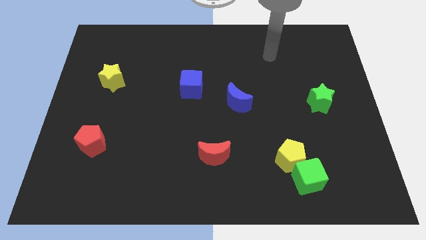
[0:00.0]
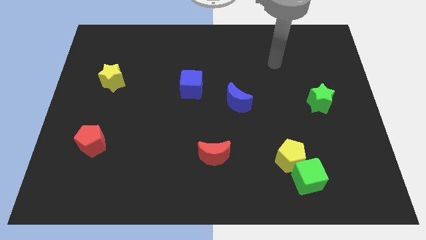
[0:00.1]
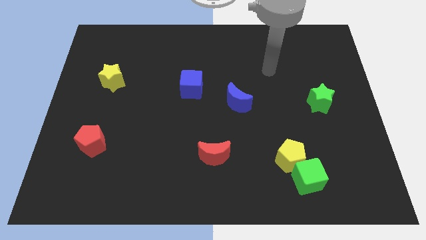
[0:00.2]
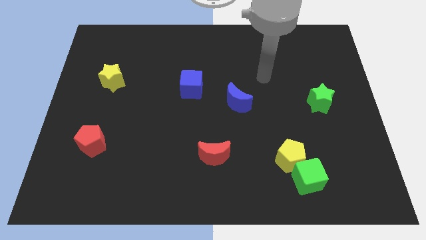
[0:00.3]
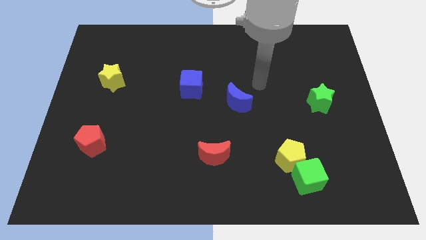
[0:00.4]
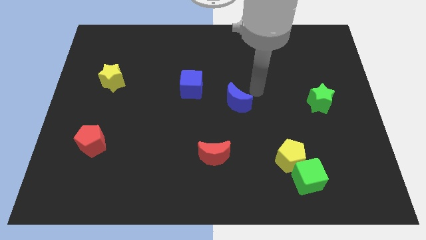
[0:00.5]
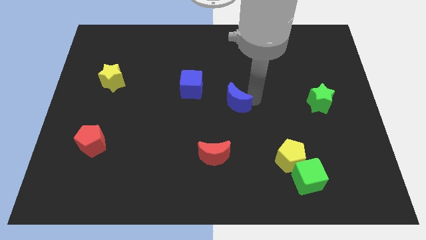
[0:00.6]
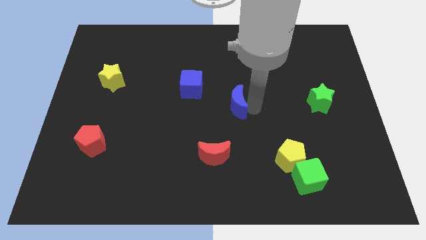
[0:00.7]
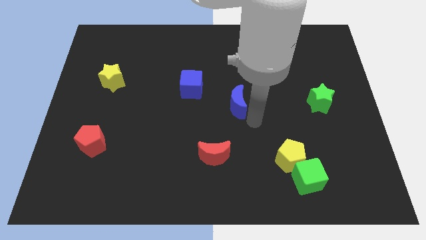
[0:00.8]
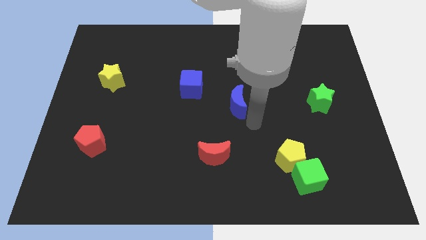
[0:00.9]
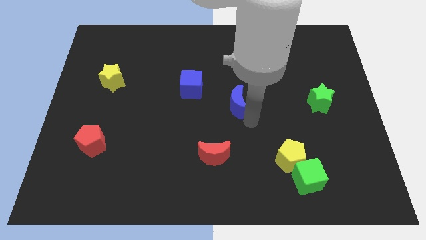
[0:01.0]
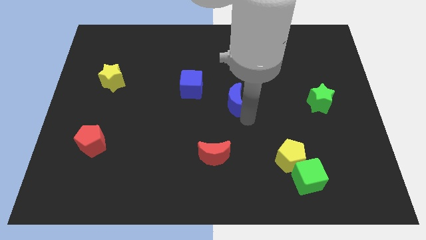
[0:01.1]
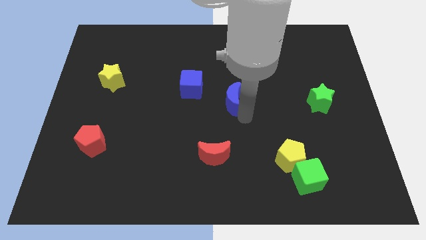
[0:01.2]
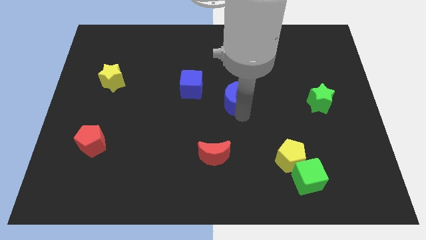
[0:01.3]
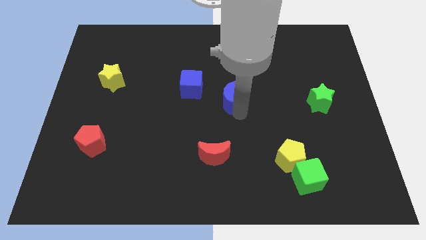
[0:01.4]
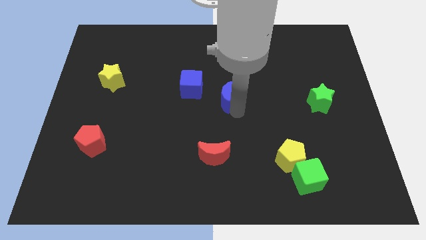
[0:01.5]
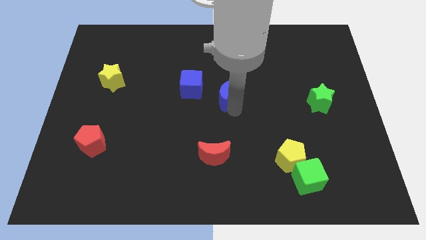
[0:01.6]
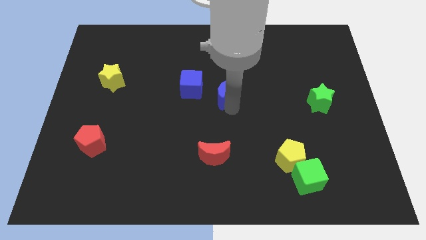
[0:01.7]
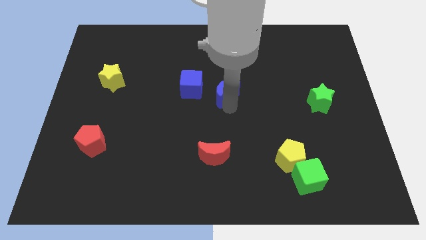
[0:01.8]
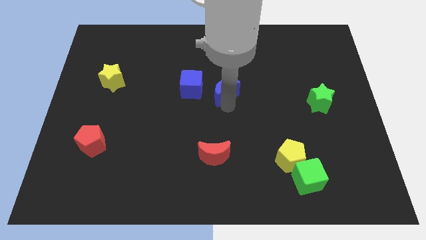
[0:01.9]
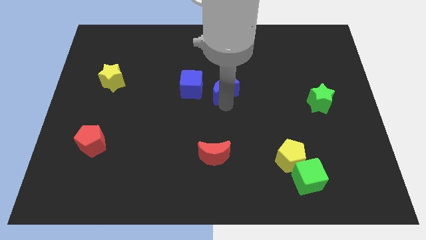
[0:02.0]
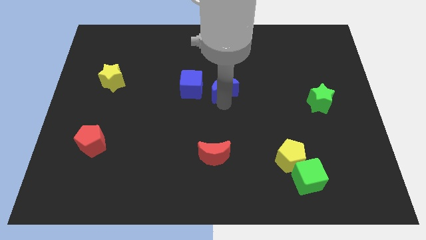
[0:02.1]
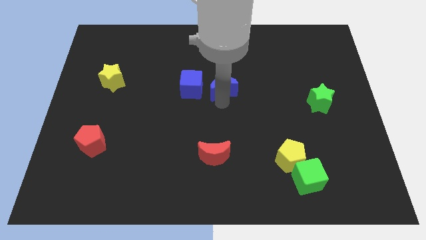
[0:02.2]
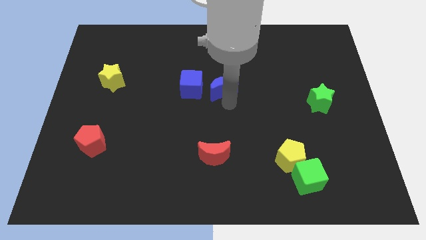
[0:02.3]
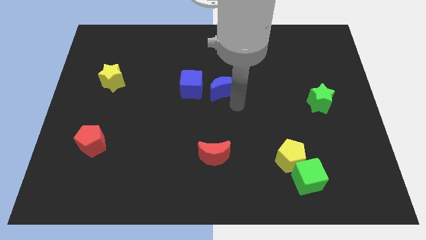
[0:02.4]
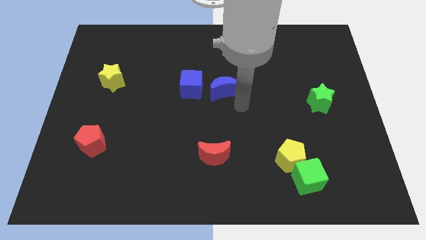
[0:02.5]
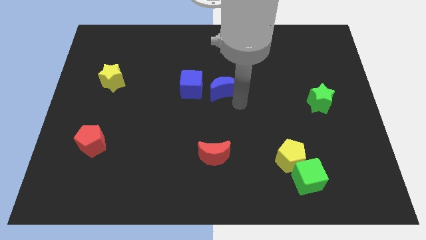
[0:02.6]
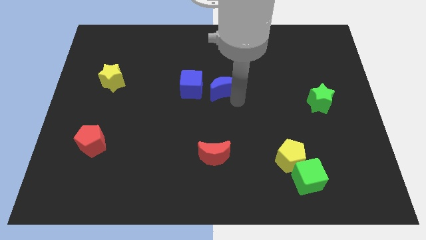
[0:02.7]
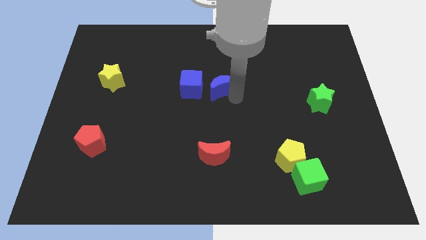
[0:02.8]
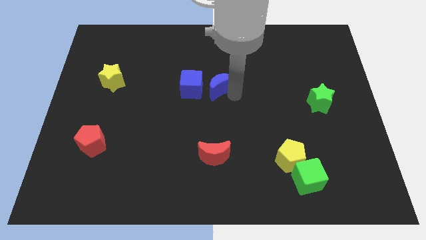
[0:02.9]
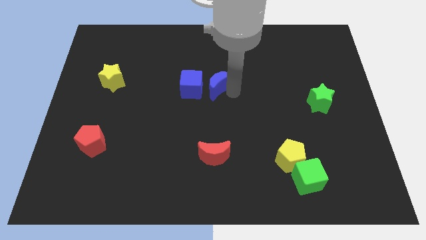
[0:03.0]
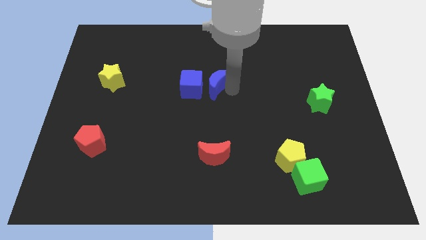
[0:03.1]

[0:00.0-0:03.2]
push the blue moon up and left diagonally a bit

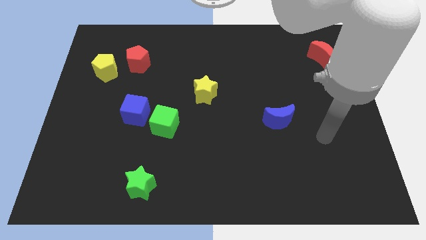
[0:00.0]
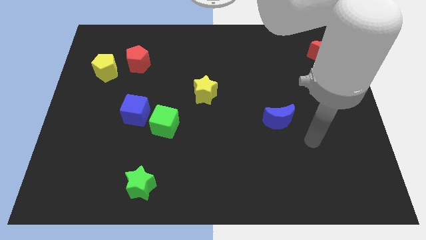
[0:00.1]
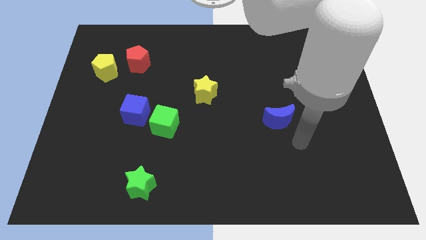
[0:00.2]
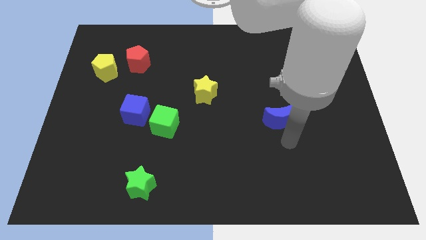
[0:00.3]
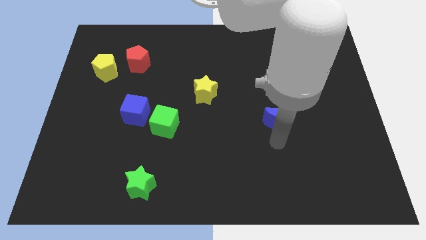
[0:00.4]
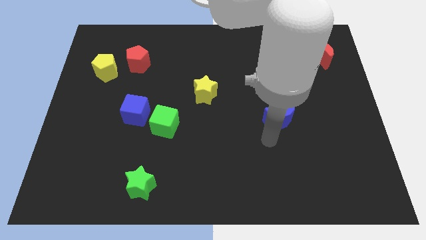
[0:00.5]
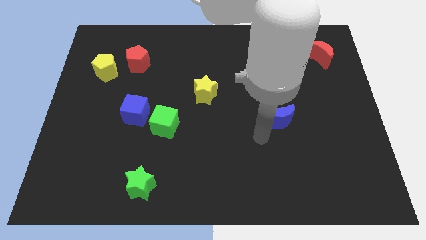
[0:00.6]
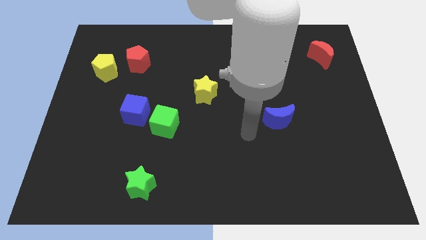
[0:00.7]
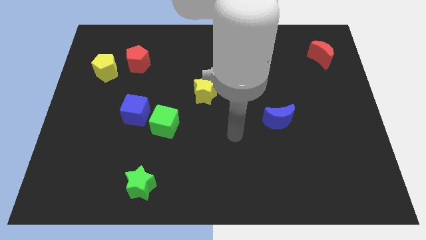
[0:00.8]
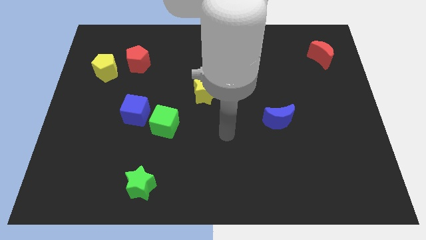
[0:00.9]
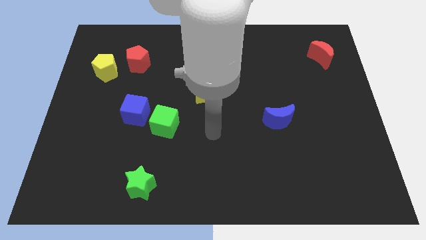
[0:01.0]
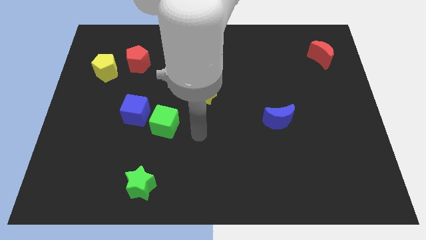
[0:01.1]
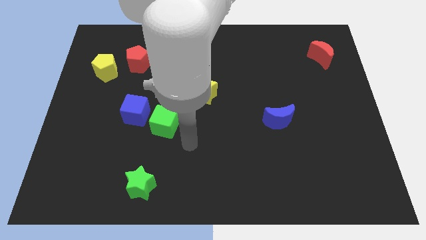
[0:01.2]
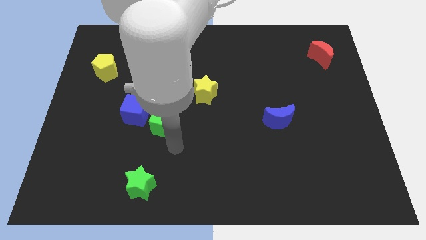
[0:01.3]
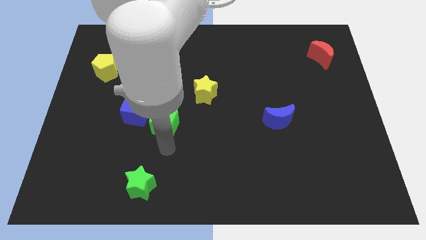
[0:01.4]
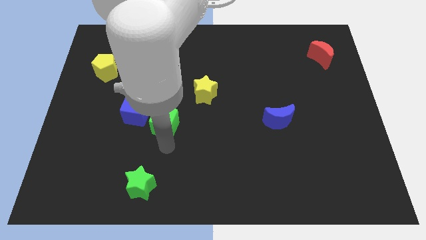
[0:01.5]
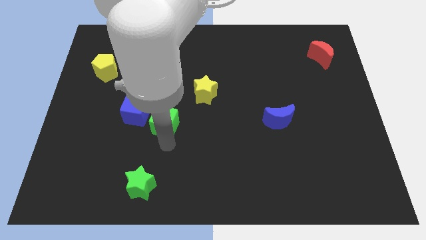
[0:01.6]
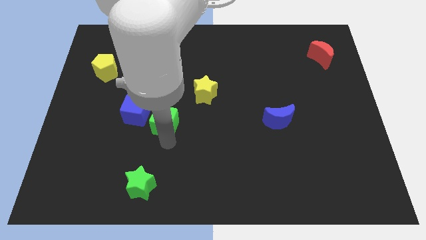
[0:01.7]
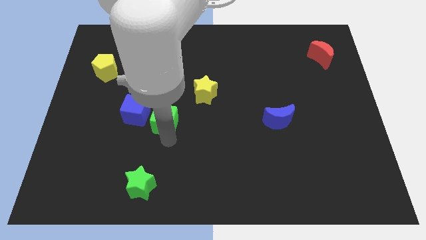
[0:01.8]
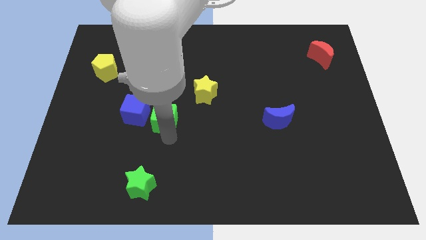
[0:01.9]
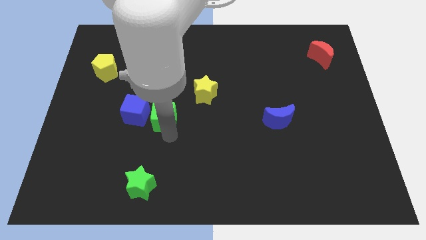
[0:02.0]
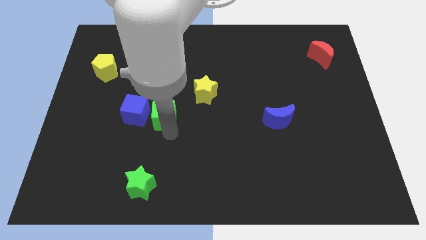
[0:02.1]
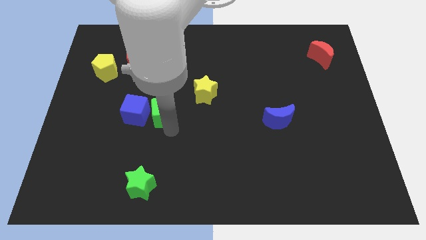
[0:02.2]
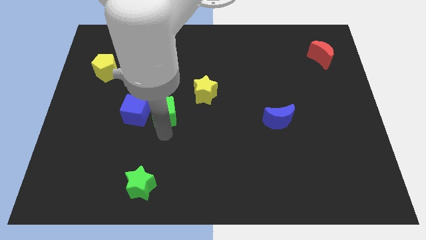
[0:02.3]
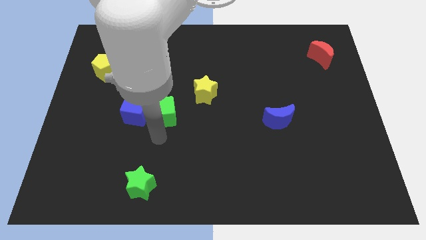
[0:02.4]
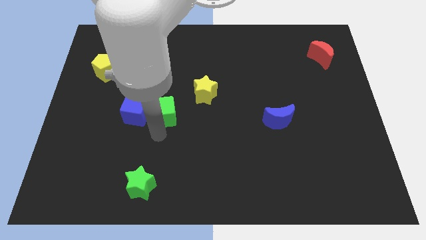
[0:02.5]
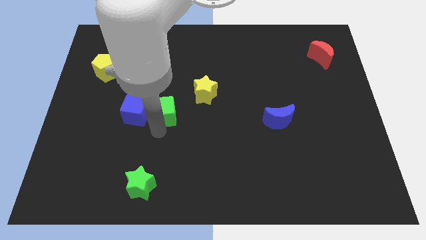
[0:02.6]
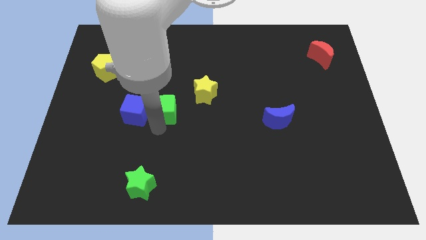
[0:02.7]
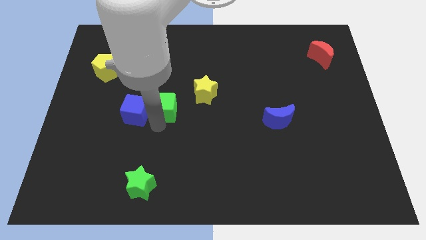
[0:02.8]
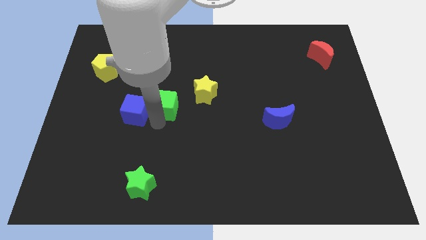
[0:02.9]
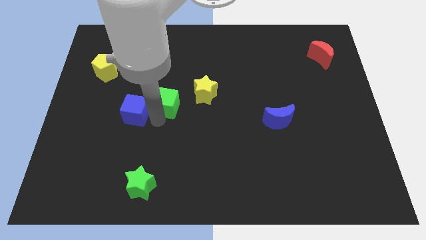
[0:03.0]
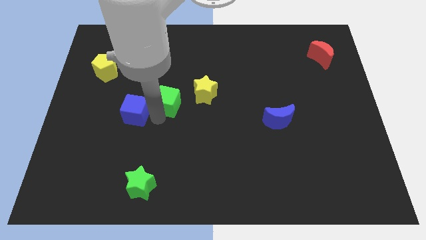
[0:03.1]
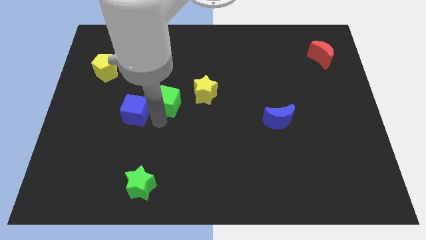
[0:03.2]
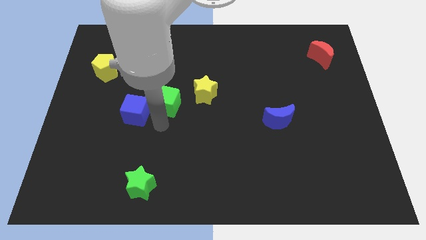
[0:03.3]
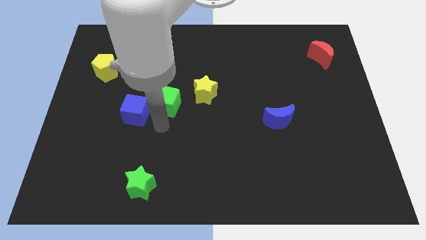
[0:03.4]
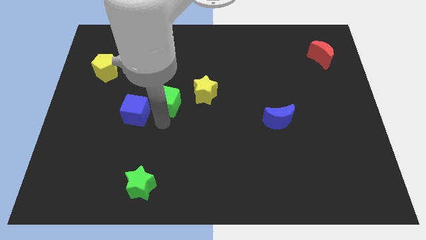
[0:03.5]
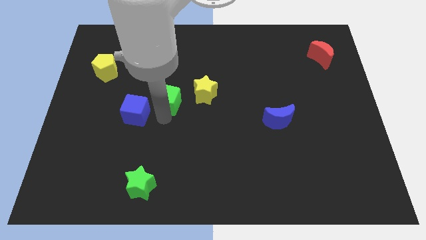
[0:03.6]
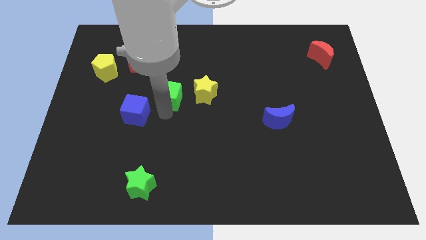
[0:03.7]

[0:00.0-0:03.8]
slightly slide the green cube upwards

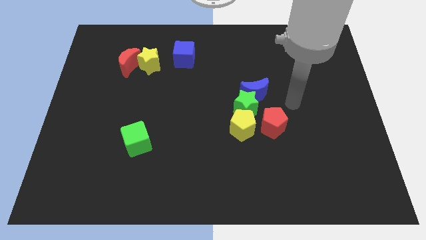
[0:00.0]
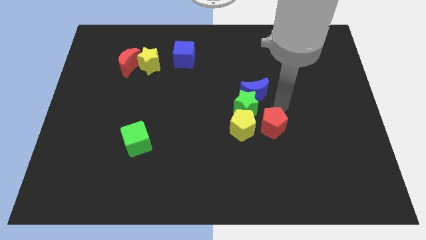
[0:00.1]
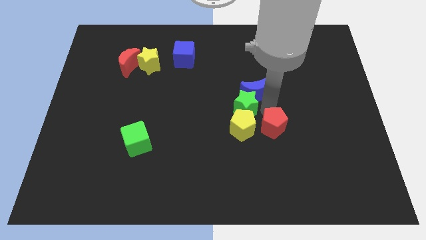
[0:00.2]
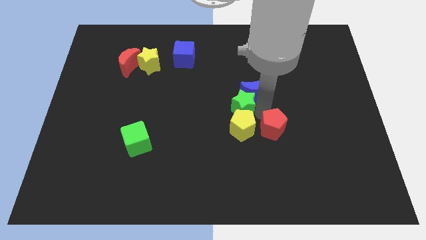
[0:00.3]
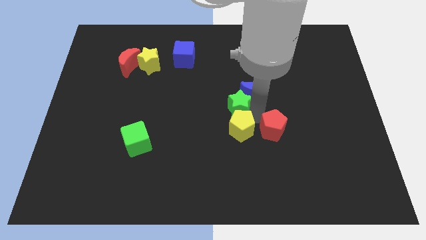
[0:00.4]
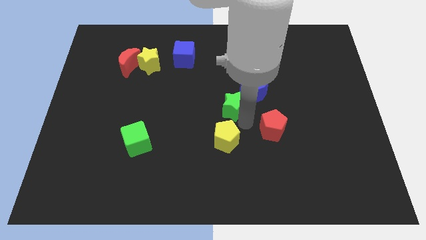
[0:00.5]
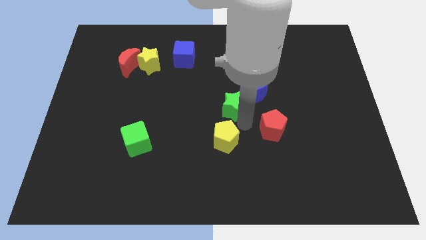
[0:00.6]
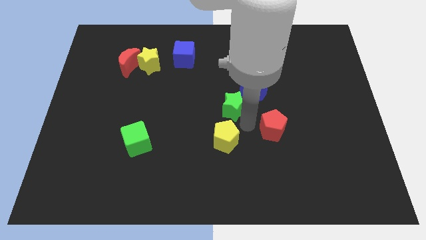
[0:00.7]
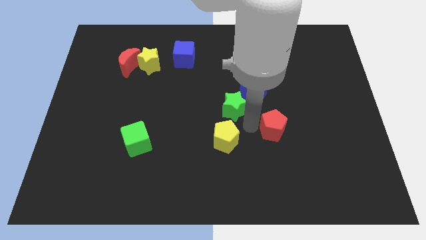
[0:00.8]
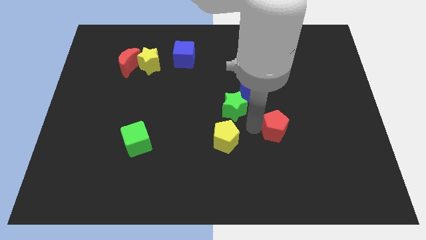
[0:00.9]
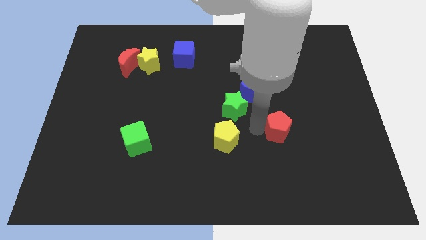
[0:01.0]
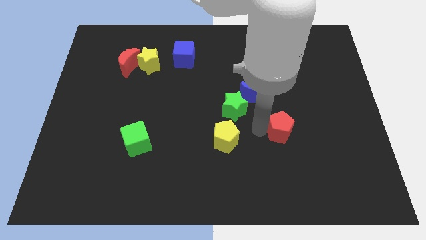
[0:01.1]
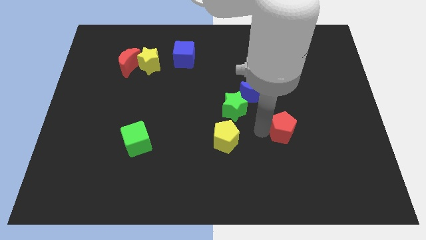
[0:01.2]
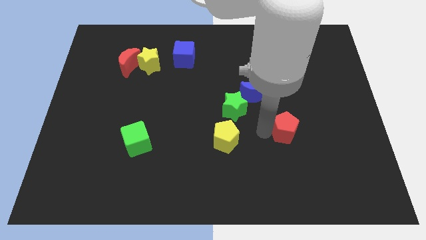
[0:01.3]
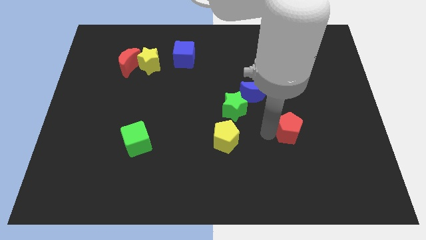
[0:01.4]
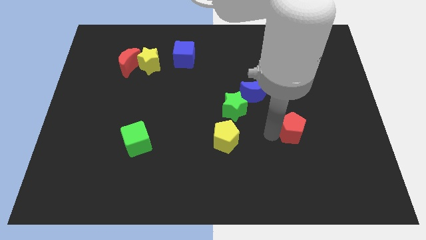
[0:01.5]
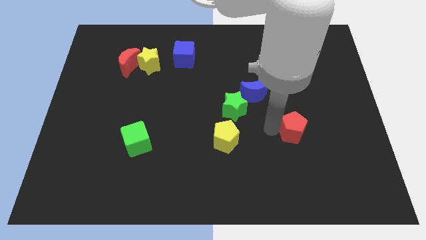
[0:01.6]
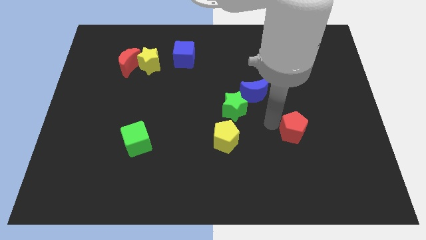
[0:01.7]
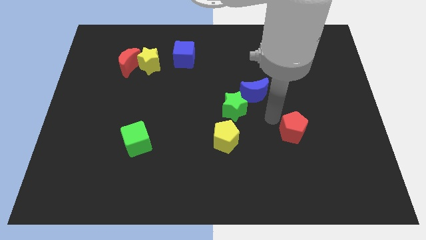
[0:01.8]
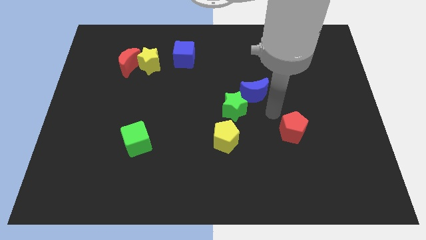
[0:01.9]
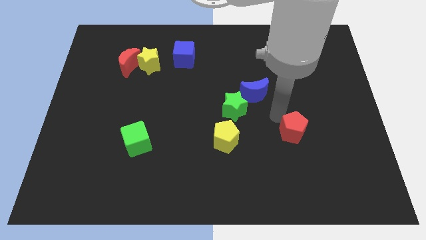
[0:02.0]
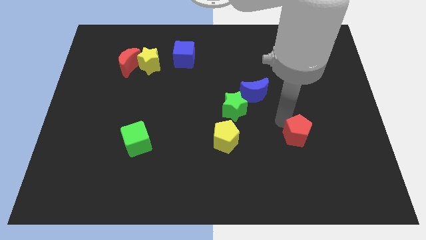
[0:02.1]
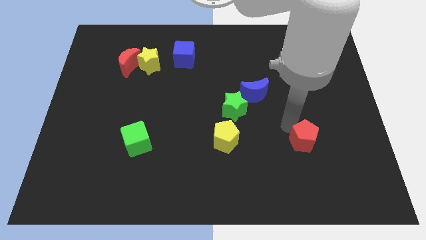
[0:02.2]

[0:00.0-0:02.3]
slightly move the red pentagon downwards and to the right diagonally
